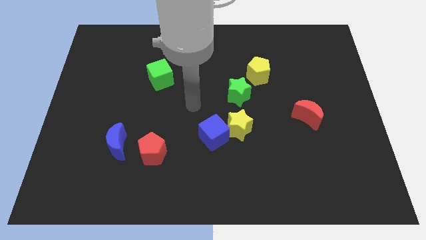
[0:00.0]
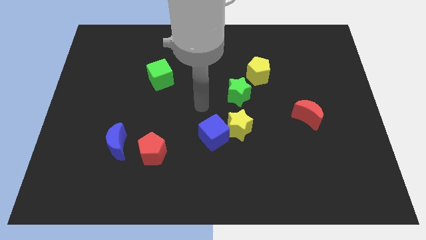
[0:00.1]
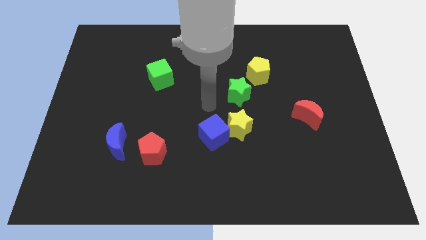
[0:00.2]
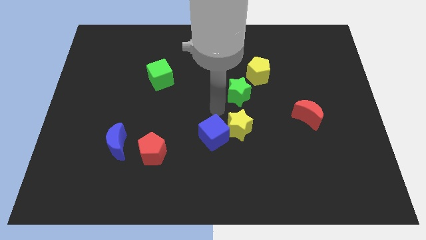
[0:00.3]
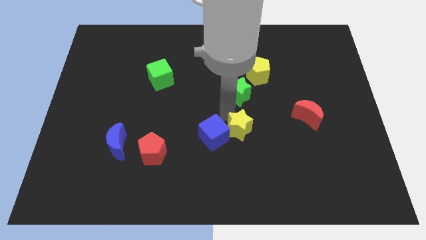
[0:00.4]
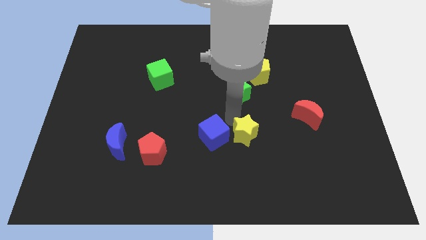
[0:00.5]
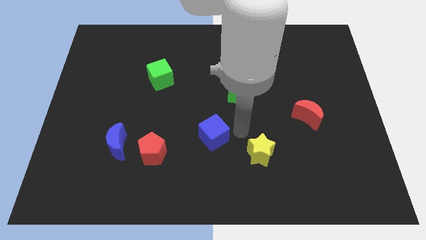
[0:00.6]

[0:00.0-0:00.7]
move the blue cube away from the yellow star

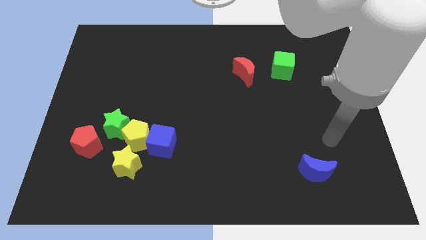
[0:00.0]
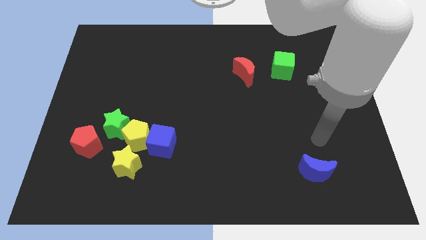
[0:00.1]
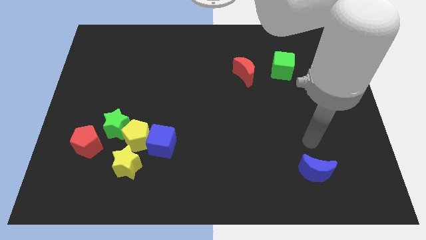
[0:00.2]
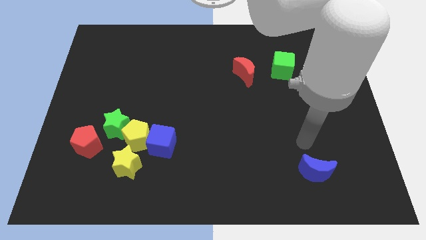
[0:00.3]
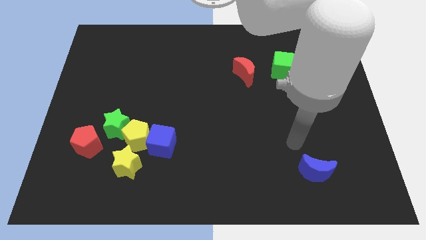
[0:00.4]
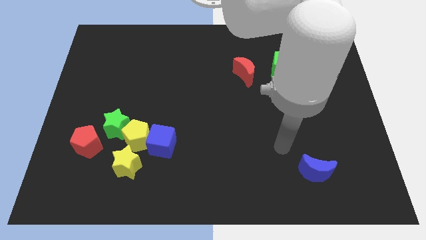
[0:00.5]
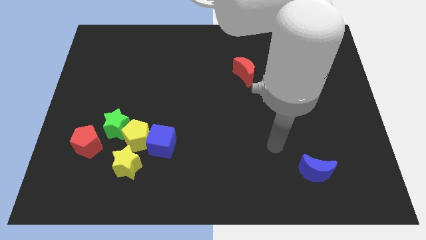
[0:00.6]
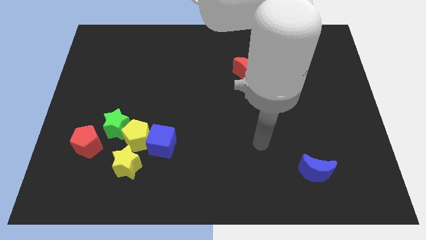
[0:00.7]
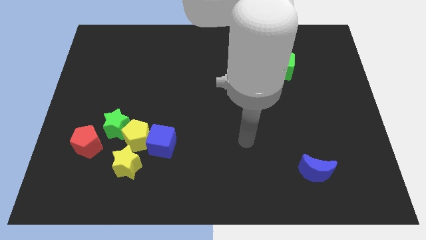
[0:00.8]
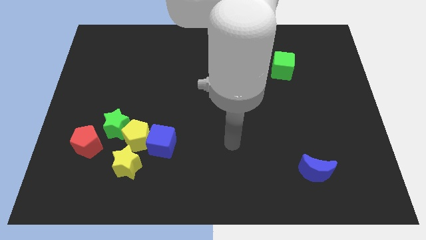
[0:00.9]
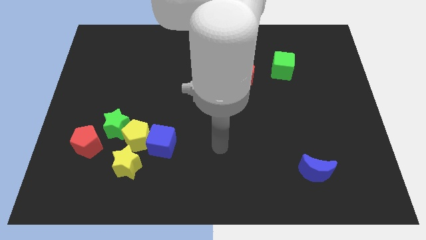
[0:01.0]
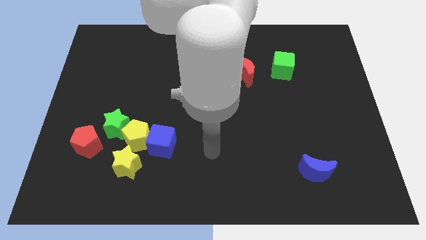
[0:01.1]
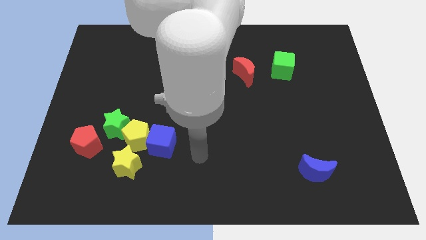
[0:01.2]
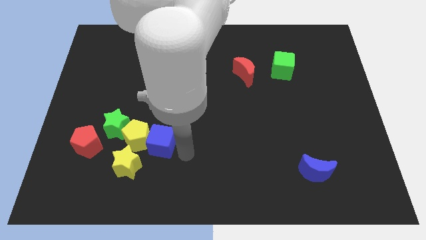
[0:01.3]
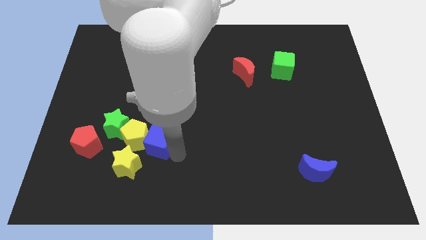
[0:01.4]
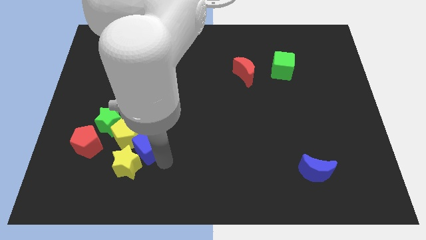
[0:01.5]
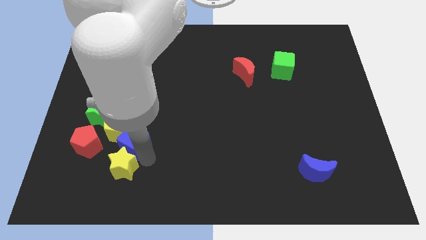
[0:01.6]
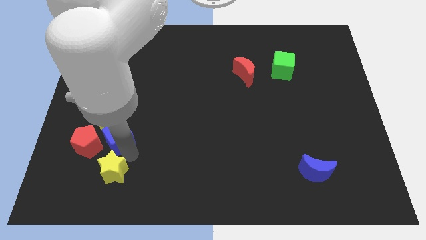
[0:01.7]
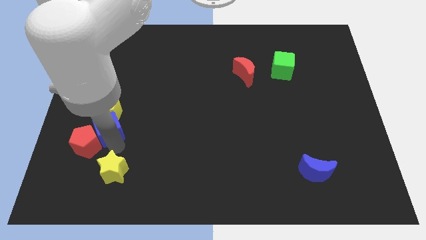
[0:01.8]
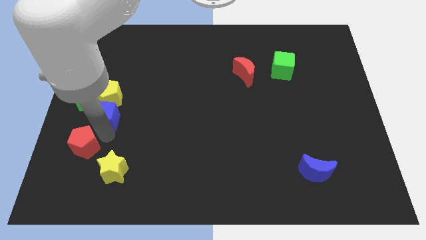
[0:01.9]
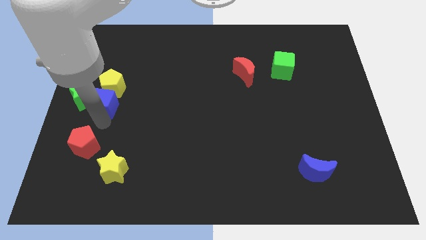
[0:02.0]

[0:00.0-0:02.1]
move the yellow pentagon away from the group

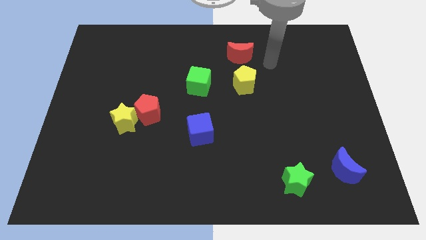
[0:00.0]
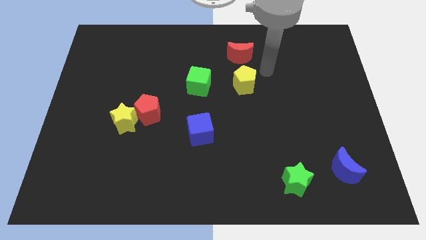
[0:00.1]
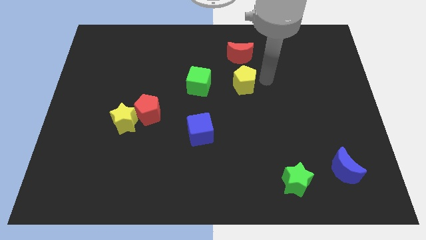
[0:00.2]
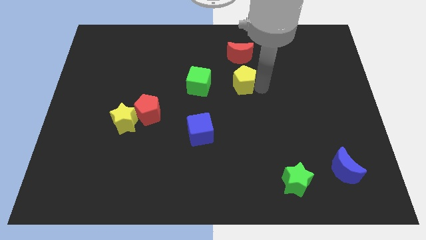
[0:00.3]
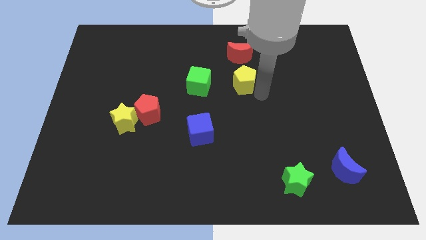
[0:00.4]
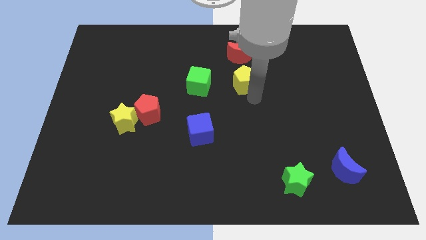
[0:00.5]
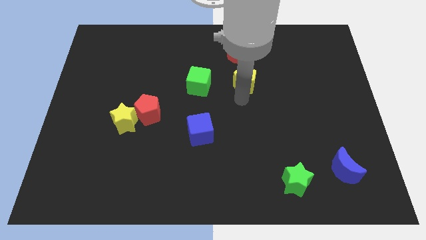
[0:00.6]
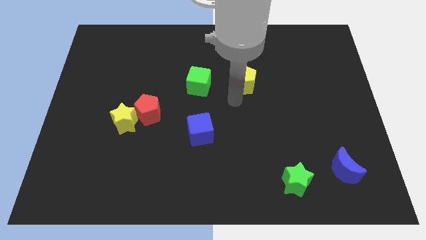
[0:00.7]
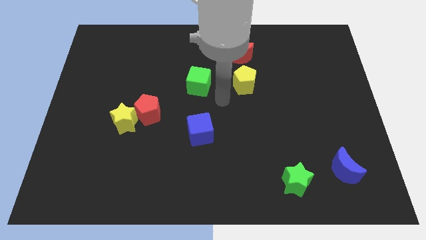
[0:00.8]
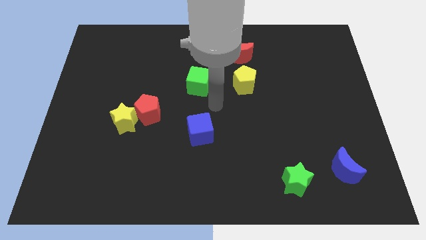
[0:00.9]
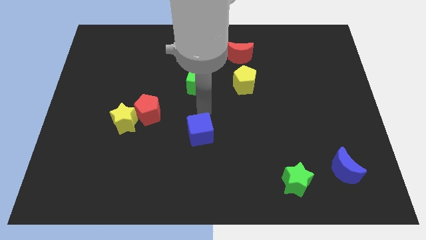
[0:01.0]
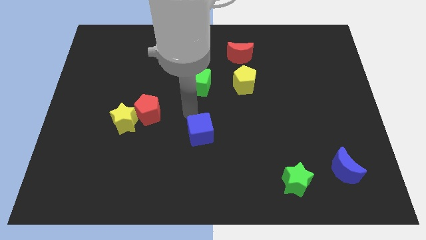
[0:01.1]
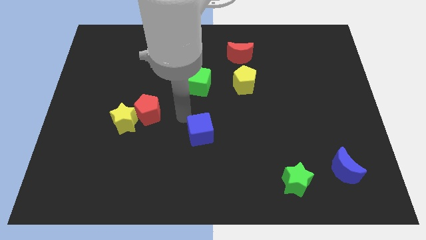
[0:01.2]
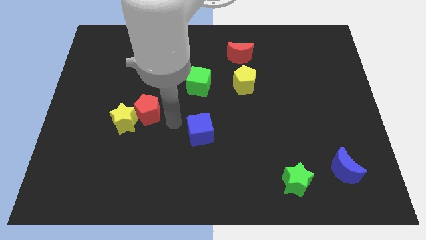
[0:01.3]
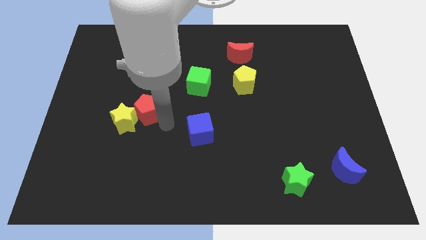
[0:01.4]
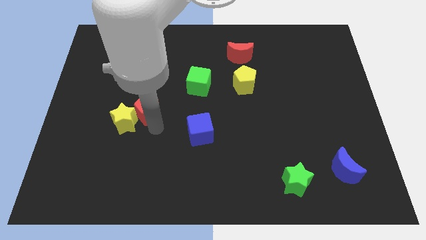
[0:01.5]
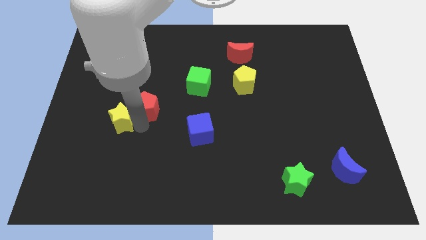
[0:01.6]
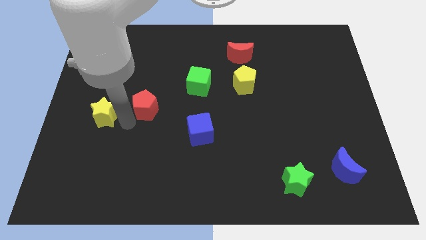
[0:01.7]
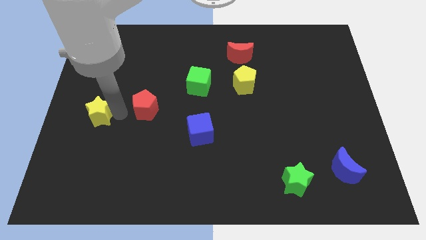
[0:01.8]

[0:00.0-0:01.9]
separate the red pentagon from the yellow star

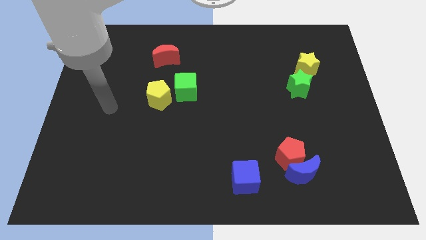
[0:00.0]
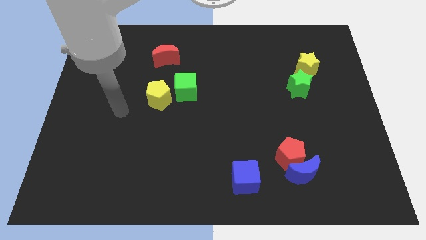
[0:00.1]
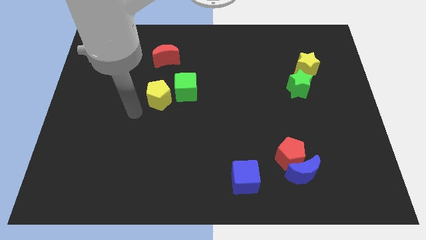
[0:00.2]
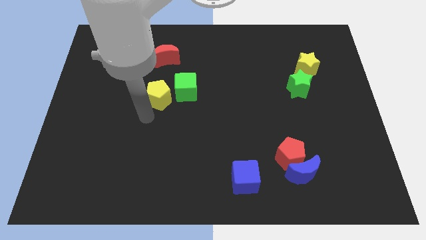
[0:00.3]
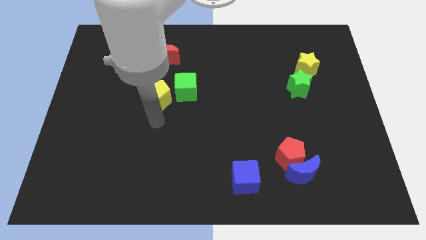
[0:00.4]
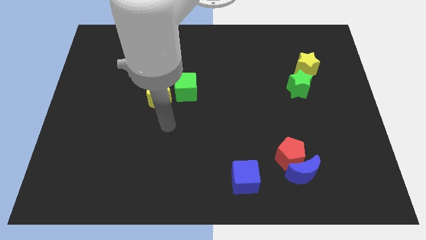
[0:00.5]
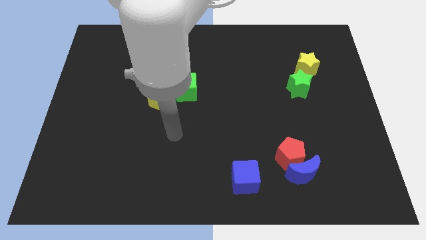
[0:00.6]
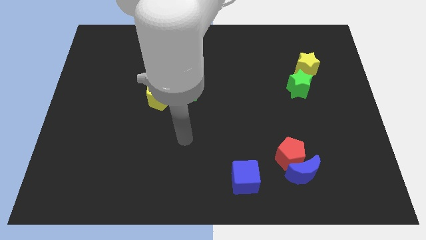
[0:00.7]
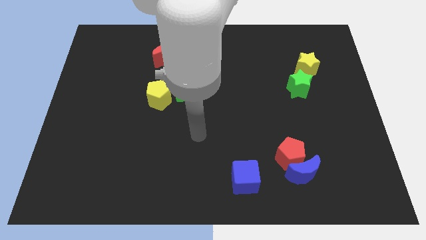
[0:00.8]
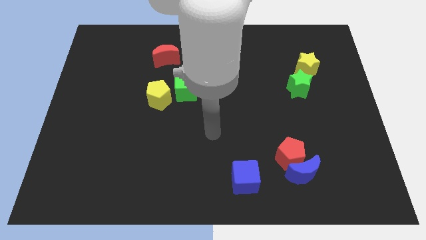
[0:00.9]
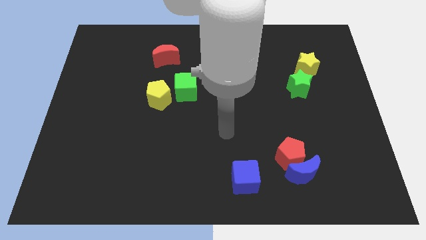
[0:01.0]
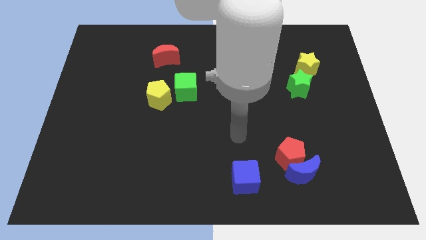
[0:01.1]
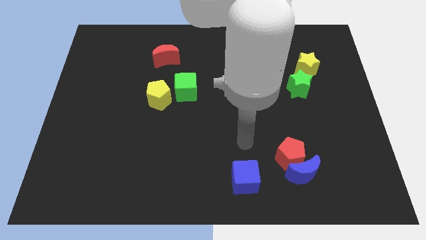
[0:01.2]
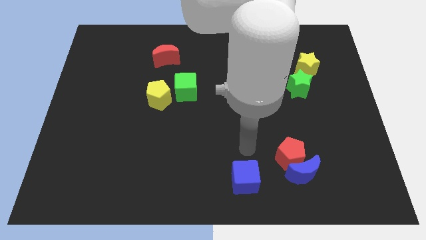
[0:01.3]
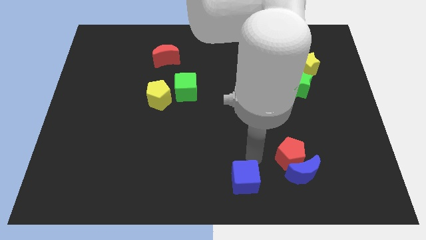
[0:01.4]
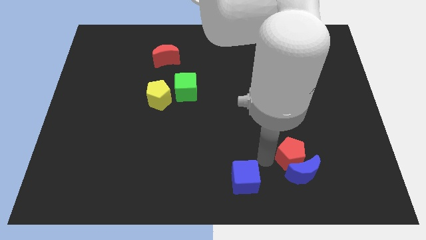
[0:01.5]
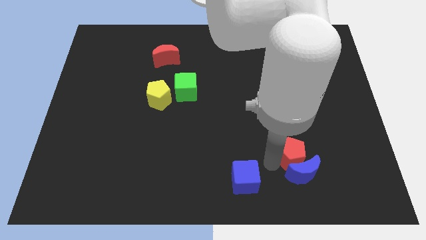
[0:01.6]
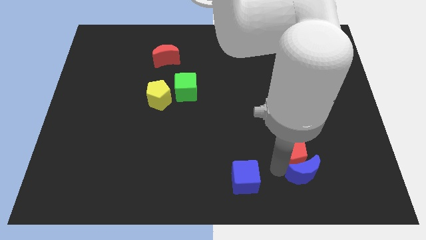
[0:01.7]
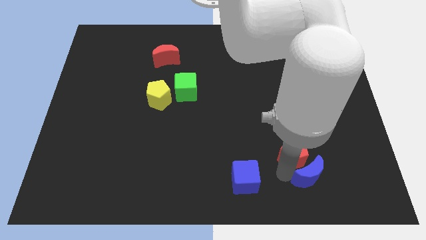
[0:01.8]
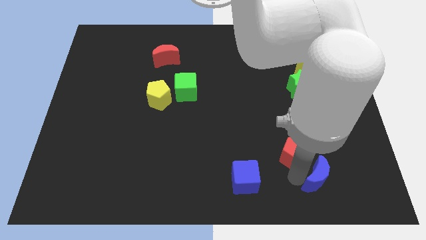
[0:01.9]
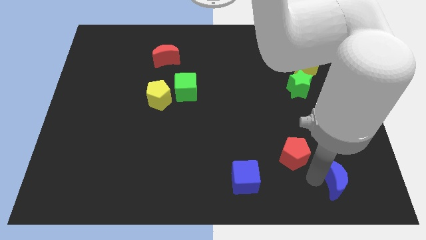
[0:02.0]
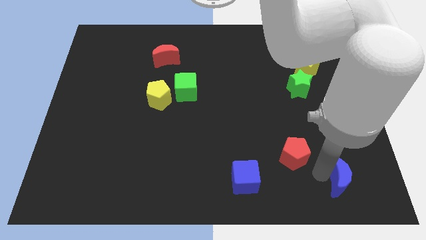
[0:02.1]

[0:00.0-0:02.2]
move the red pentagon away from the blue moon

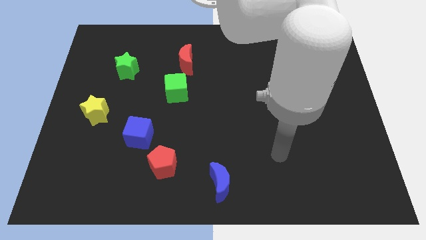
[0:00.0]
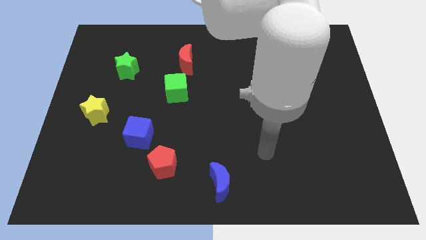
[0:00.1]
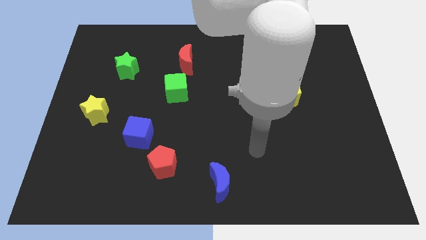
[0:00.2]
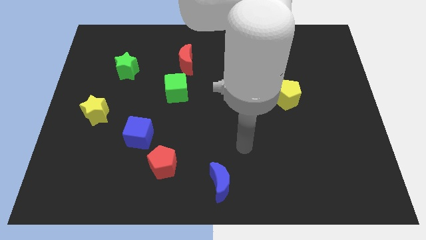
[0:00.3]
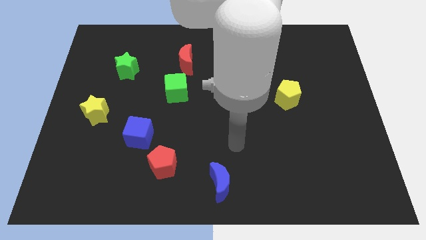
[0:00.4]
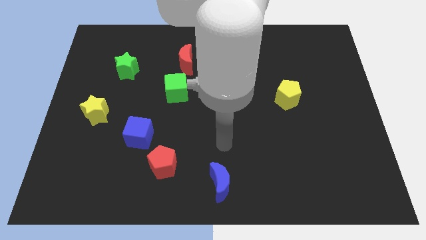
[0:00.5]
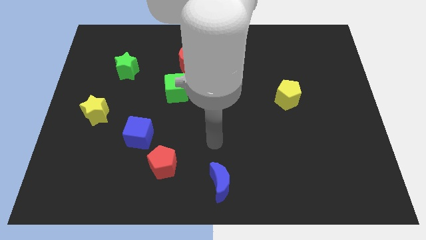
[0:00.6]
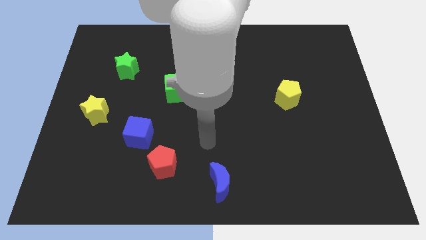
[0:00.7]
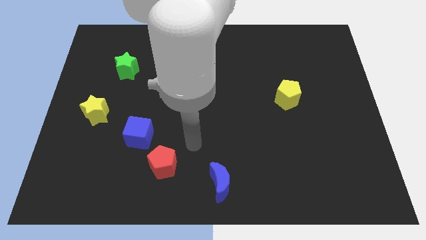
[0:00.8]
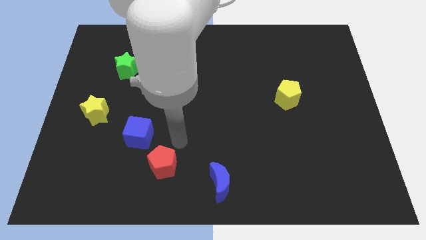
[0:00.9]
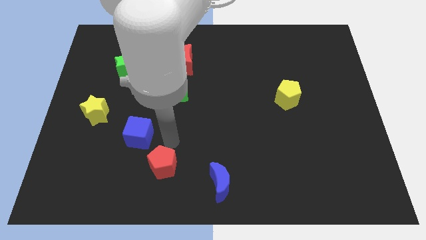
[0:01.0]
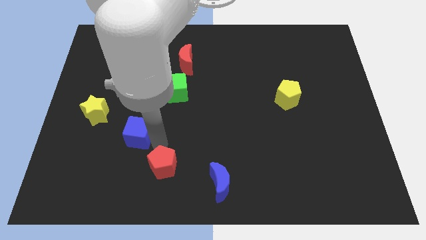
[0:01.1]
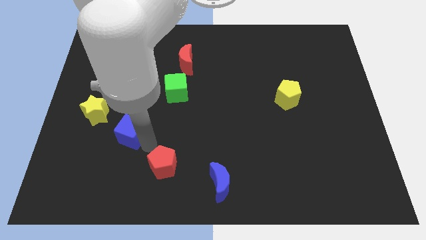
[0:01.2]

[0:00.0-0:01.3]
move the red pentagon away from the blue cube

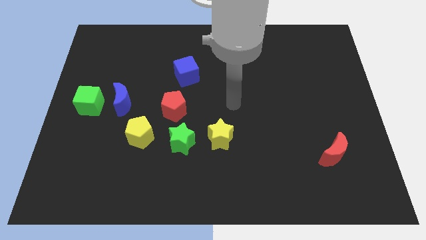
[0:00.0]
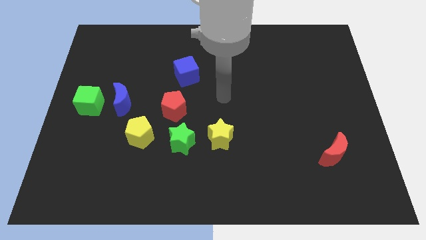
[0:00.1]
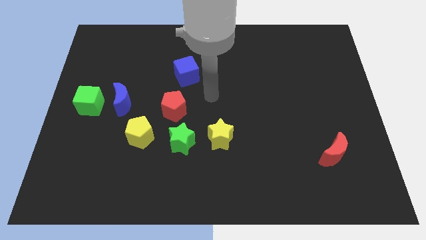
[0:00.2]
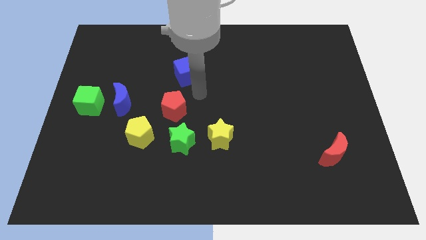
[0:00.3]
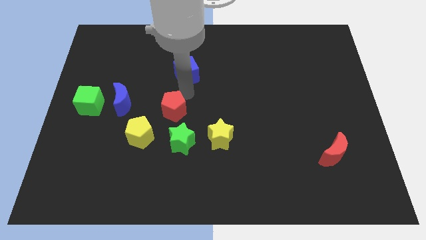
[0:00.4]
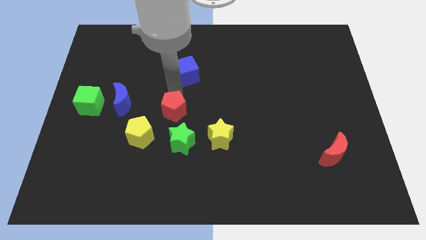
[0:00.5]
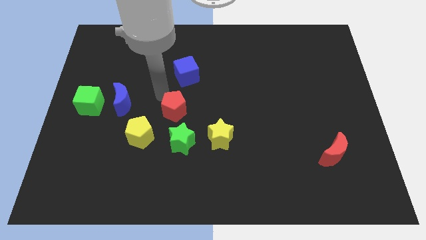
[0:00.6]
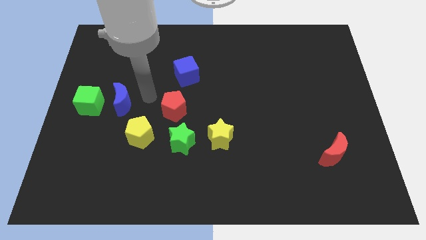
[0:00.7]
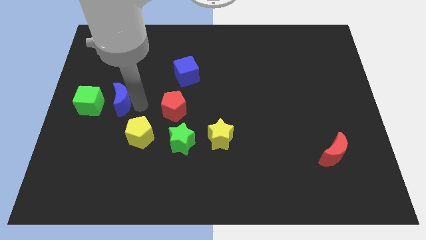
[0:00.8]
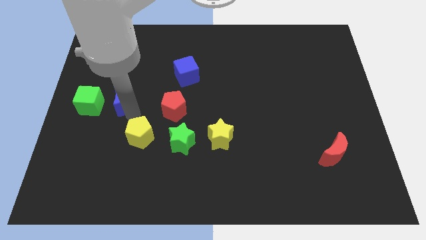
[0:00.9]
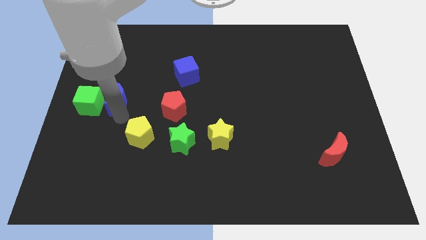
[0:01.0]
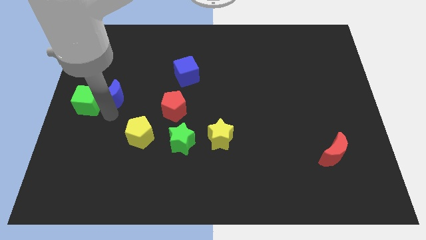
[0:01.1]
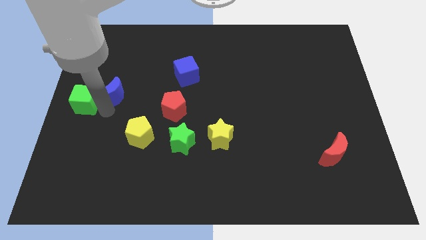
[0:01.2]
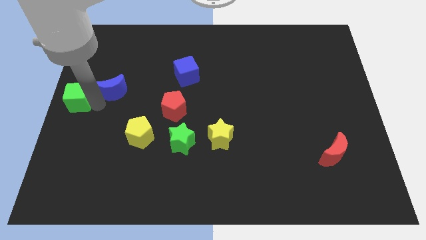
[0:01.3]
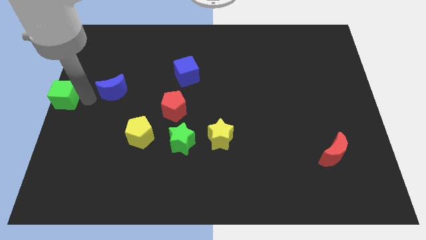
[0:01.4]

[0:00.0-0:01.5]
separate the blue moon from the green cube
